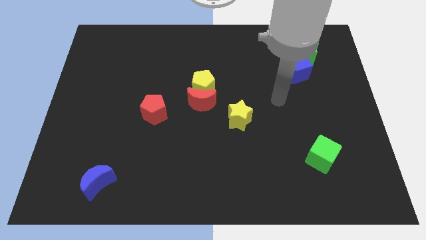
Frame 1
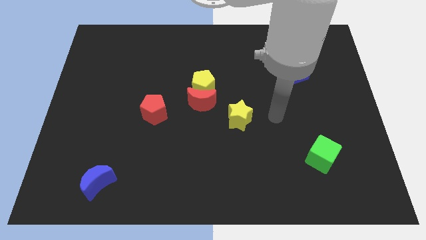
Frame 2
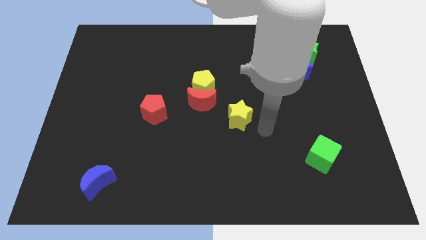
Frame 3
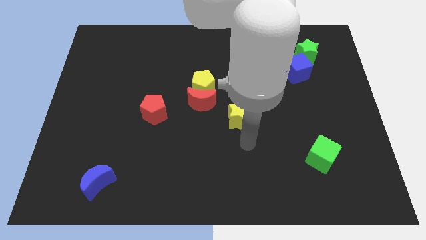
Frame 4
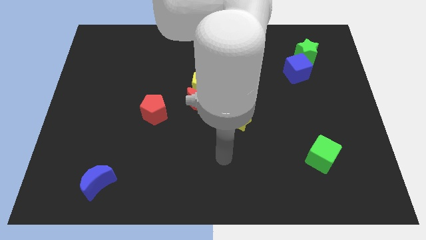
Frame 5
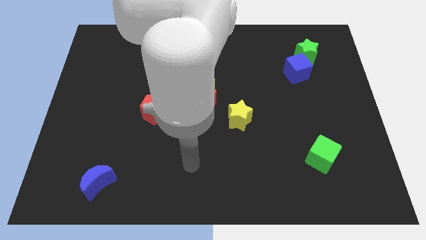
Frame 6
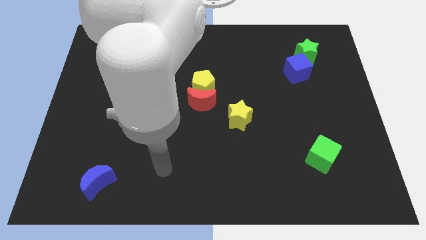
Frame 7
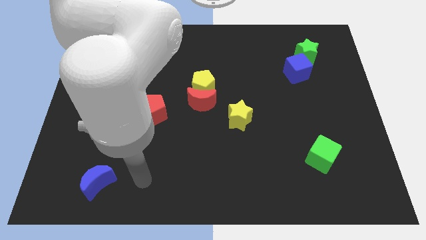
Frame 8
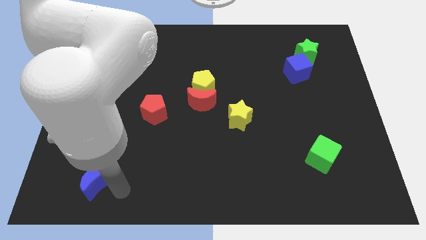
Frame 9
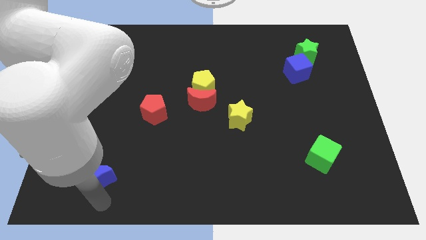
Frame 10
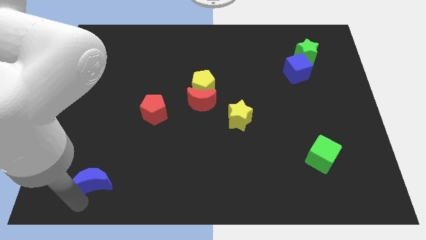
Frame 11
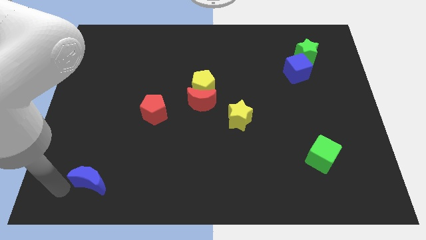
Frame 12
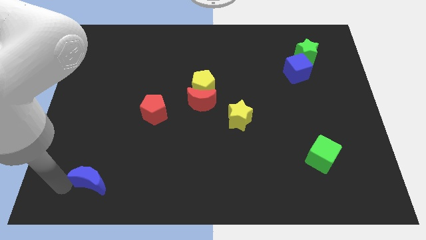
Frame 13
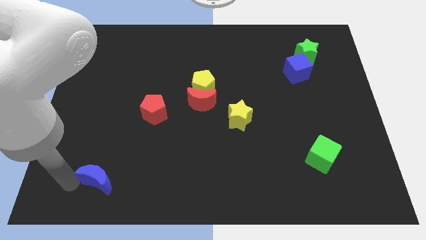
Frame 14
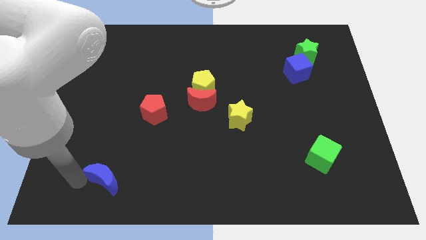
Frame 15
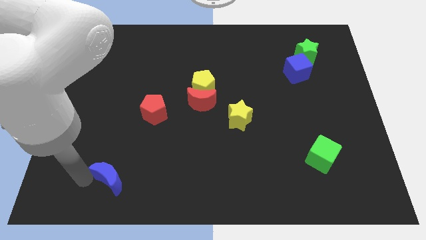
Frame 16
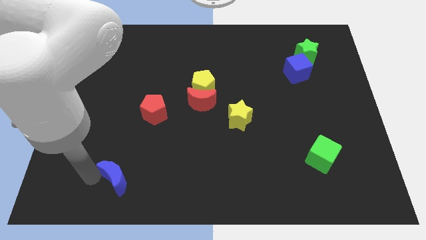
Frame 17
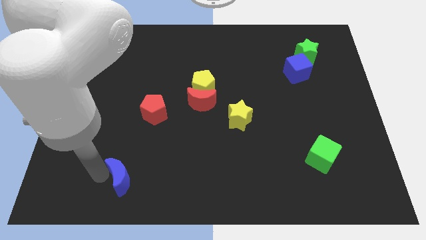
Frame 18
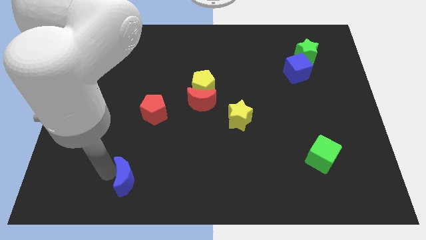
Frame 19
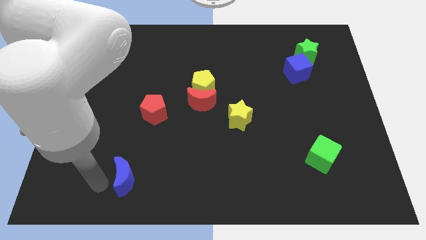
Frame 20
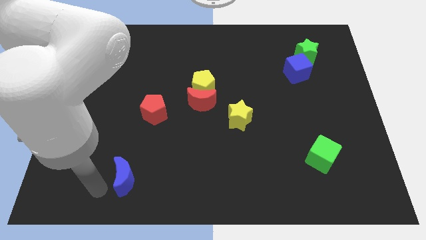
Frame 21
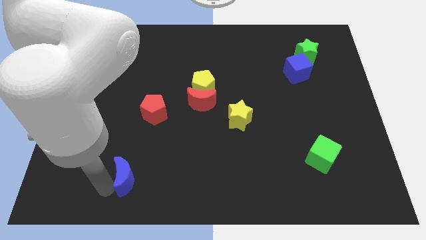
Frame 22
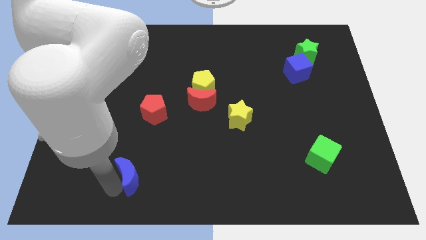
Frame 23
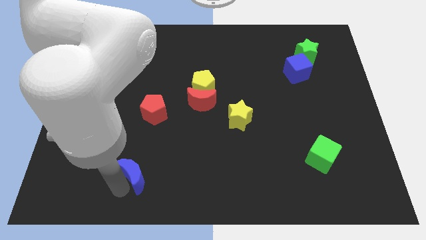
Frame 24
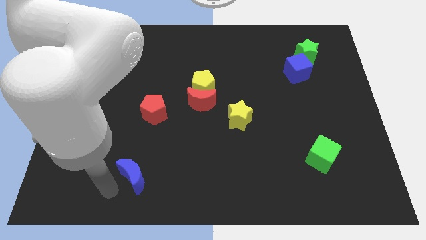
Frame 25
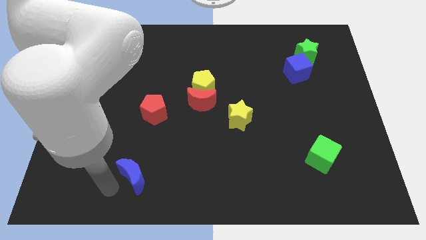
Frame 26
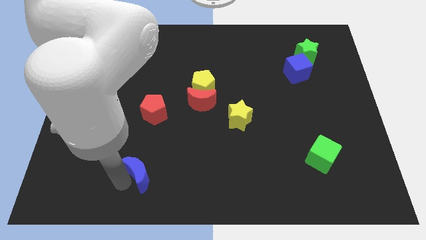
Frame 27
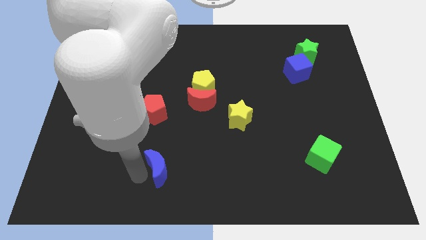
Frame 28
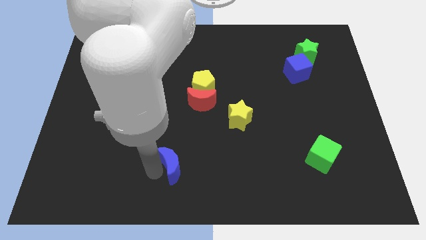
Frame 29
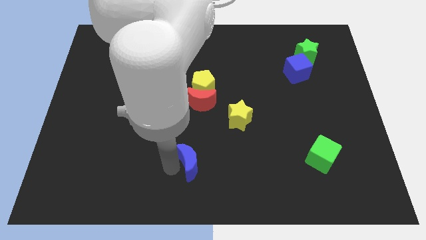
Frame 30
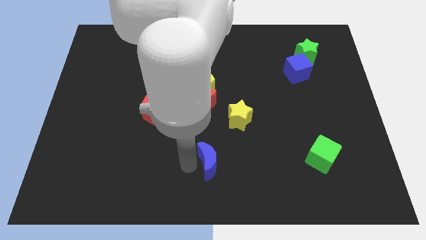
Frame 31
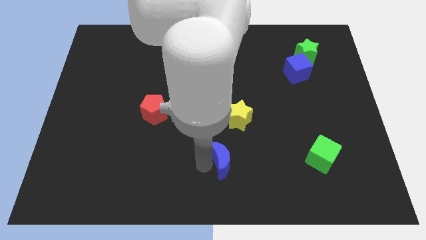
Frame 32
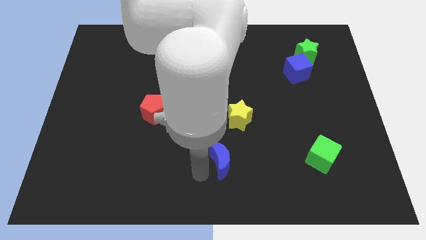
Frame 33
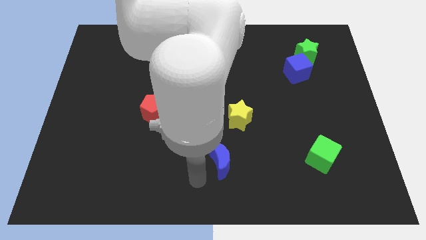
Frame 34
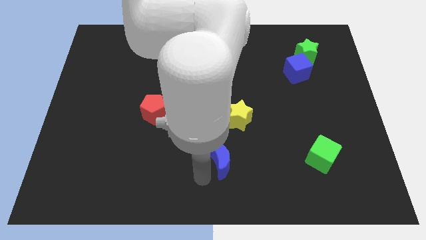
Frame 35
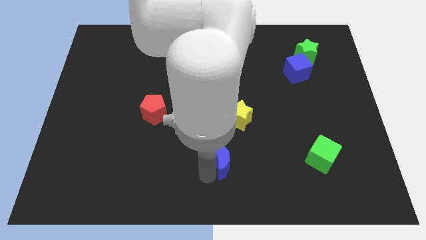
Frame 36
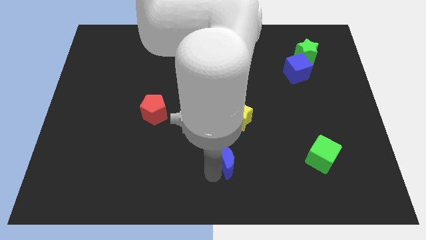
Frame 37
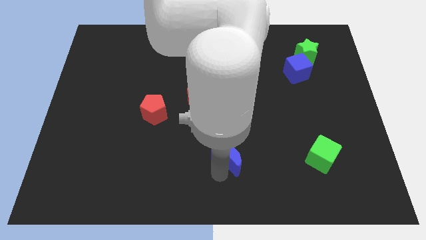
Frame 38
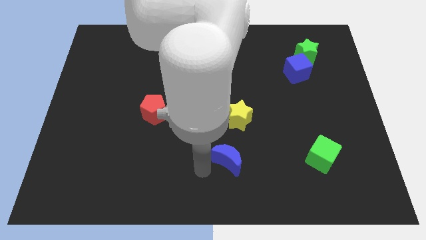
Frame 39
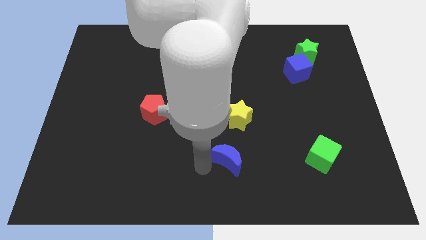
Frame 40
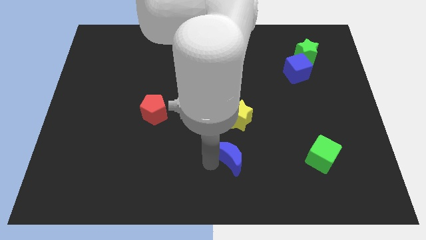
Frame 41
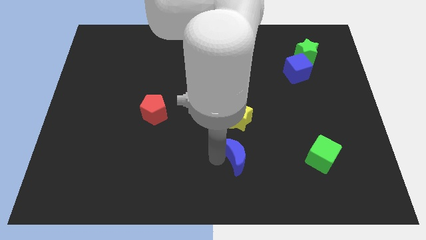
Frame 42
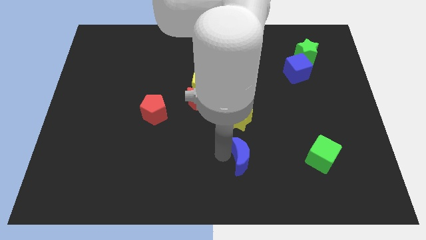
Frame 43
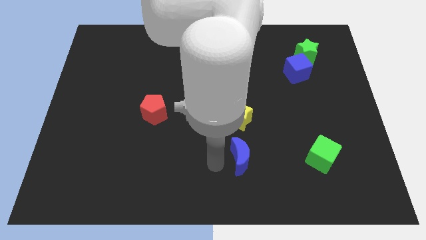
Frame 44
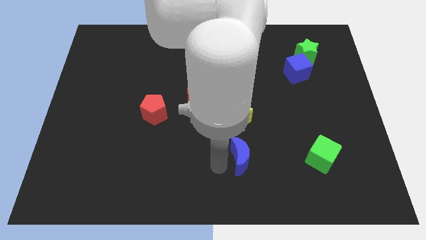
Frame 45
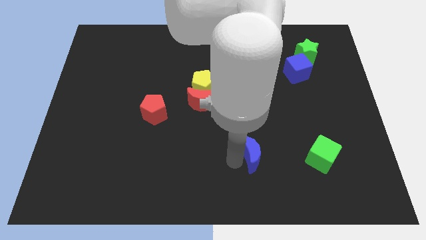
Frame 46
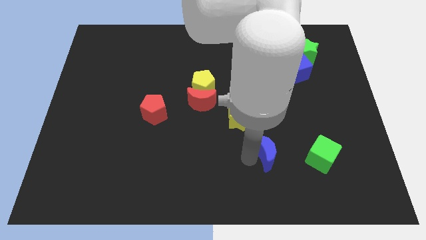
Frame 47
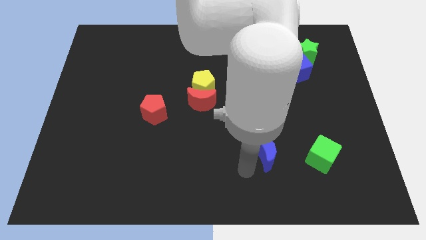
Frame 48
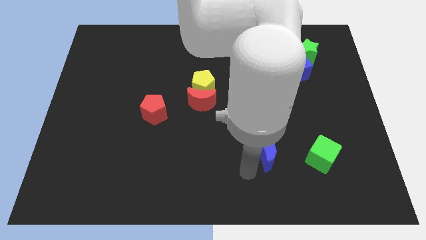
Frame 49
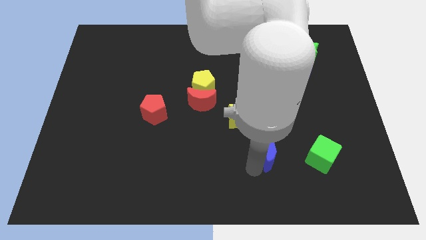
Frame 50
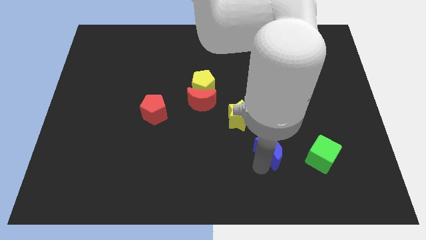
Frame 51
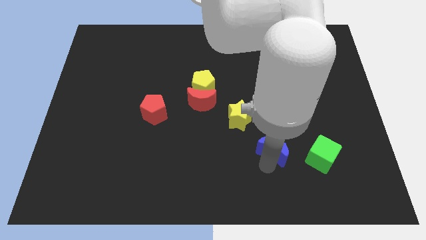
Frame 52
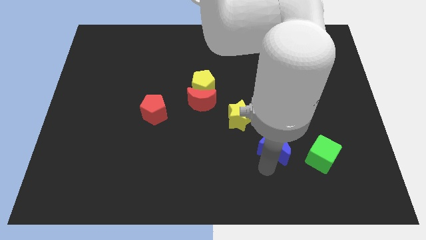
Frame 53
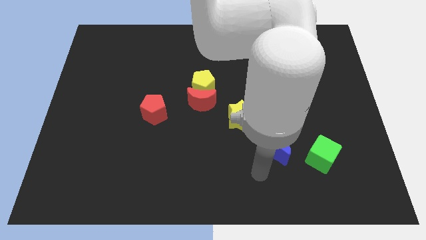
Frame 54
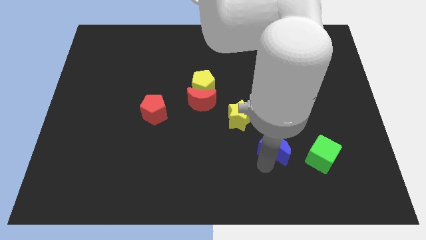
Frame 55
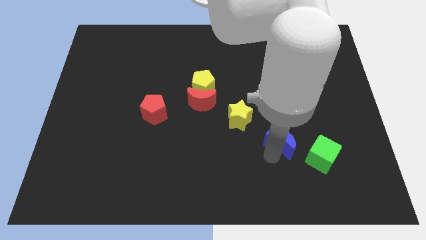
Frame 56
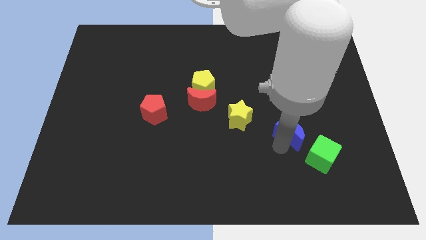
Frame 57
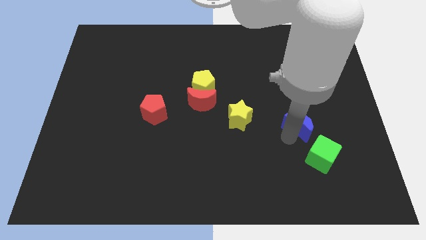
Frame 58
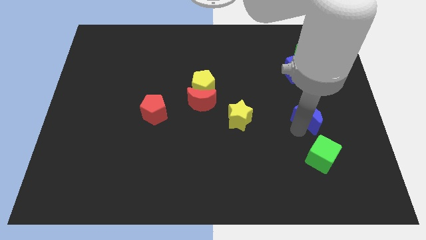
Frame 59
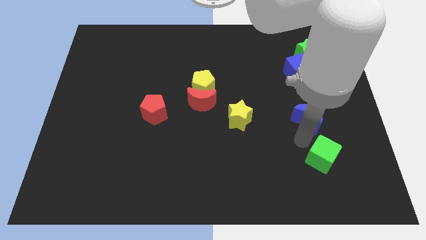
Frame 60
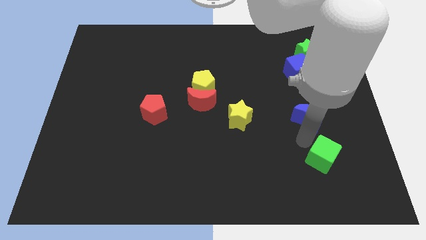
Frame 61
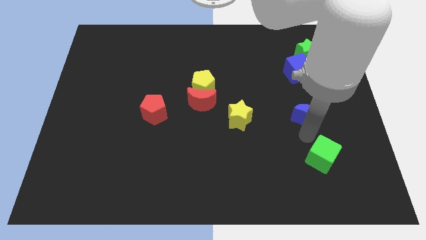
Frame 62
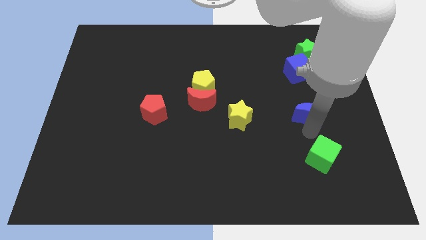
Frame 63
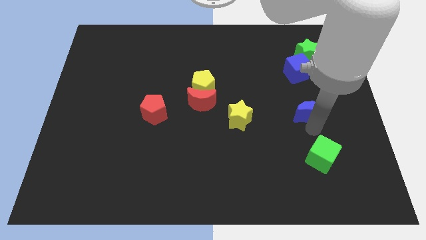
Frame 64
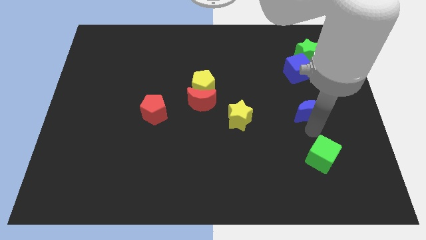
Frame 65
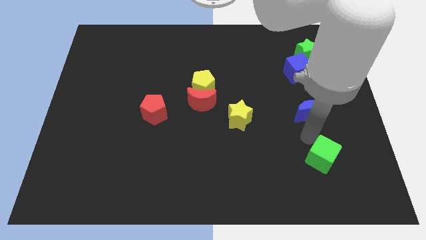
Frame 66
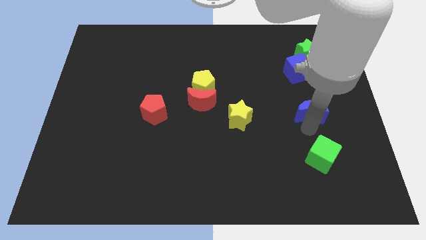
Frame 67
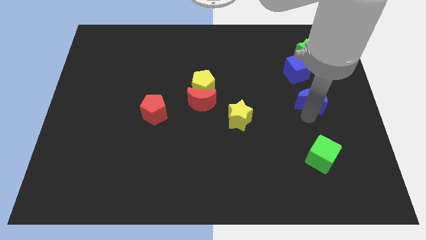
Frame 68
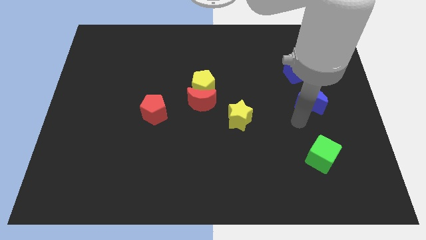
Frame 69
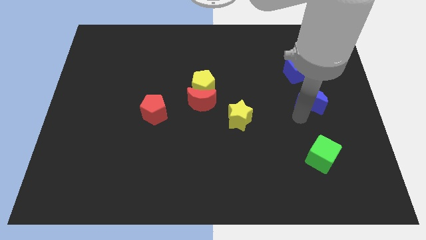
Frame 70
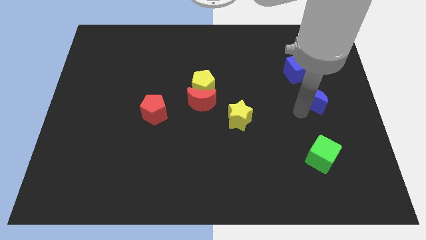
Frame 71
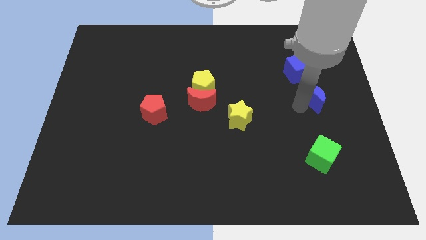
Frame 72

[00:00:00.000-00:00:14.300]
put the blue moon diagonally down and to the right of the blue cube
